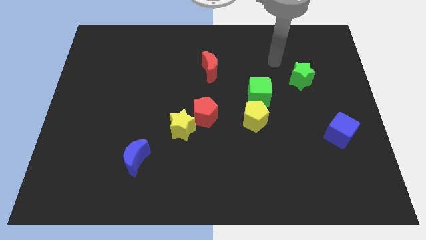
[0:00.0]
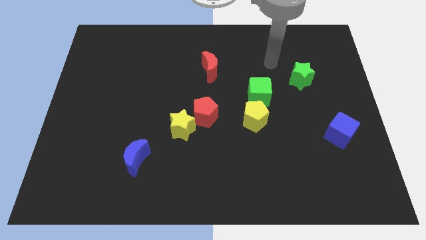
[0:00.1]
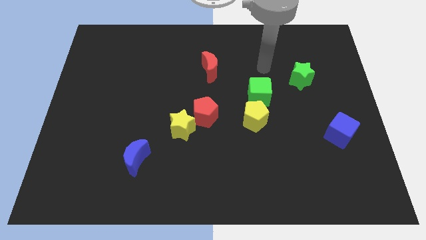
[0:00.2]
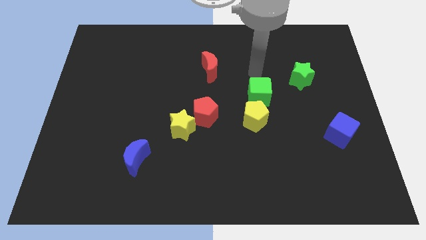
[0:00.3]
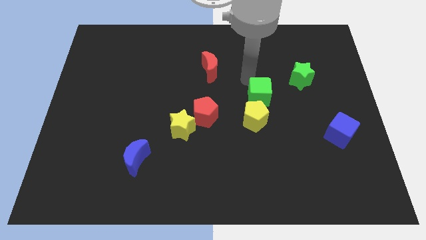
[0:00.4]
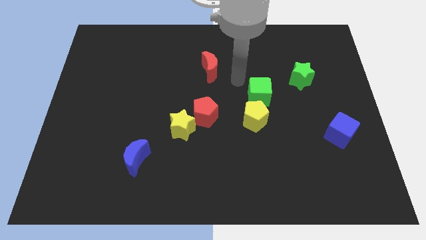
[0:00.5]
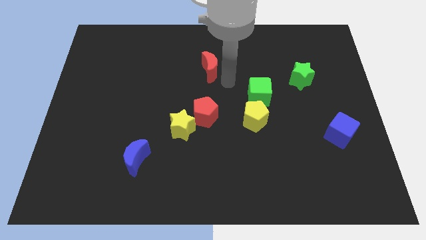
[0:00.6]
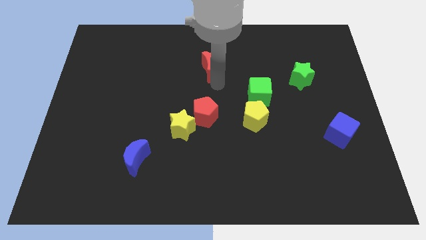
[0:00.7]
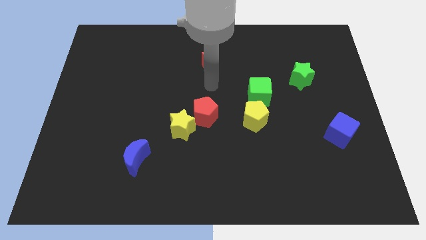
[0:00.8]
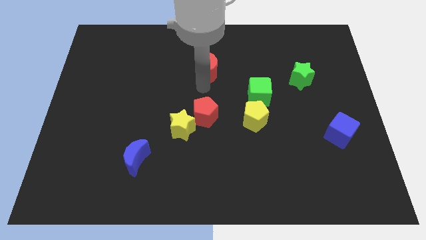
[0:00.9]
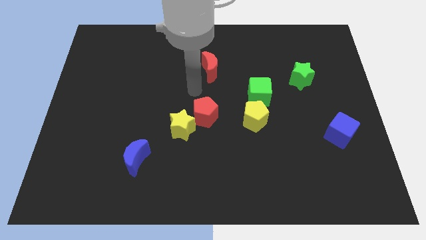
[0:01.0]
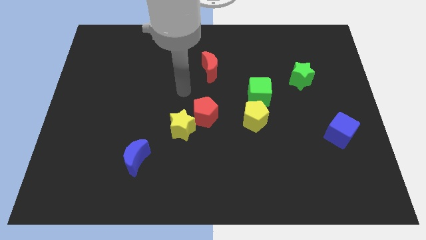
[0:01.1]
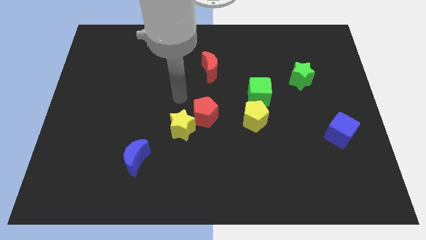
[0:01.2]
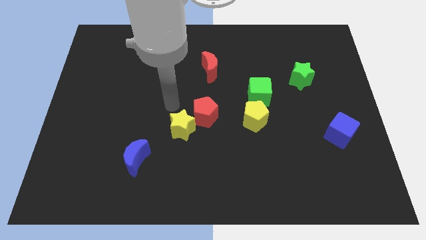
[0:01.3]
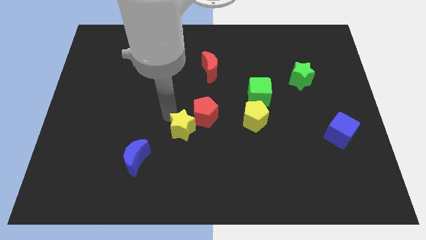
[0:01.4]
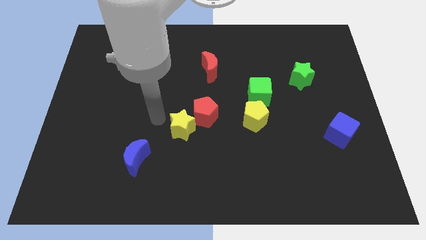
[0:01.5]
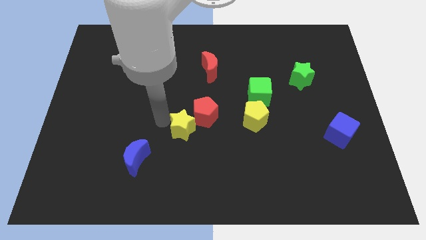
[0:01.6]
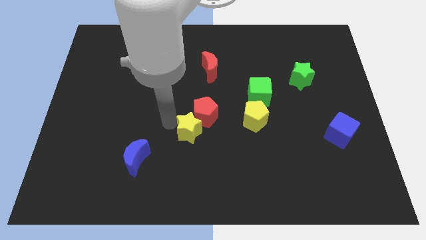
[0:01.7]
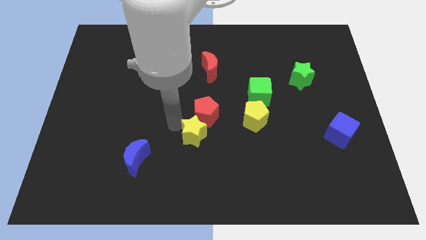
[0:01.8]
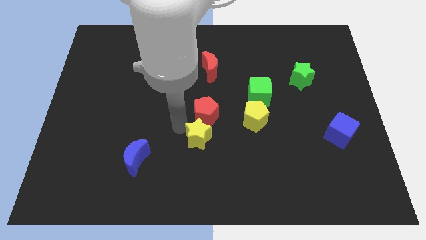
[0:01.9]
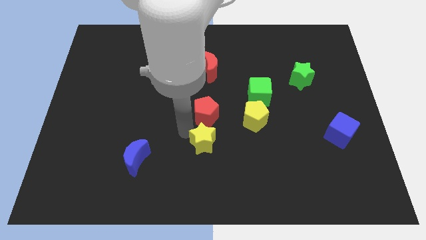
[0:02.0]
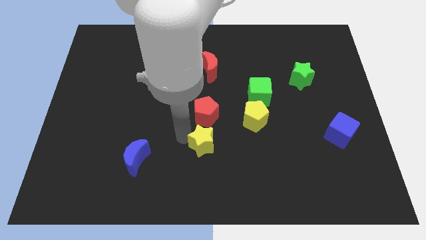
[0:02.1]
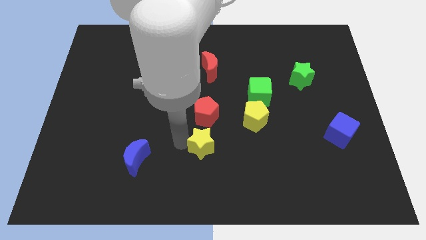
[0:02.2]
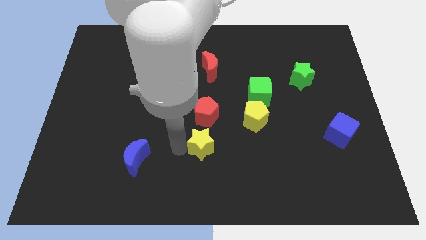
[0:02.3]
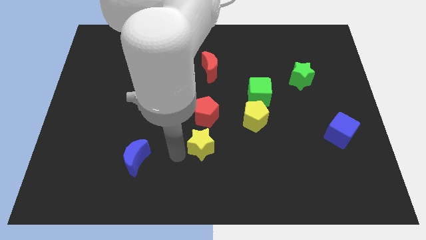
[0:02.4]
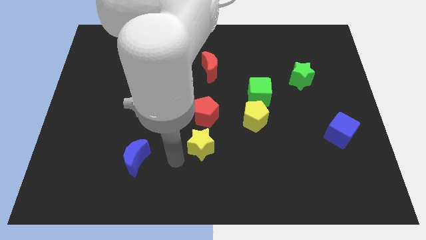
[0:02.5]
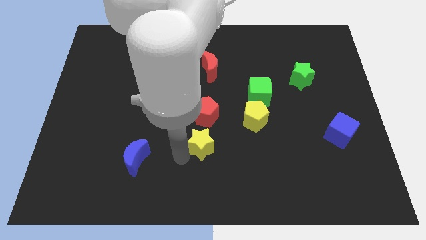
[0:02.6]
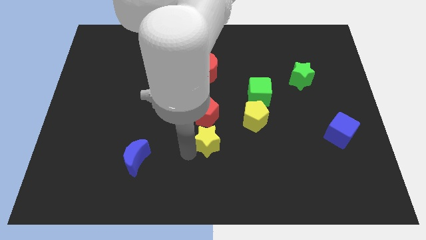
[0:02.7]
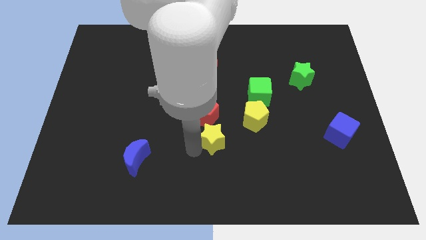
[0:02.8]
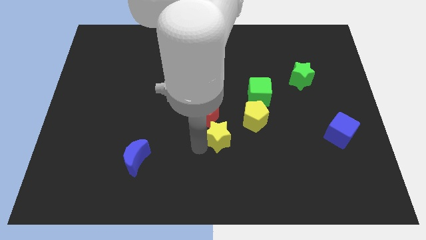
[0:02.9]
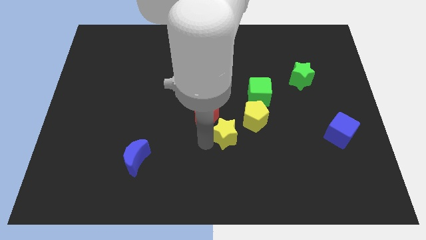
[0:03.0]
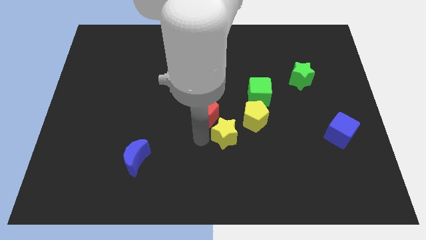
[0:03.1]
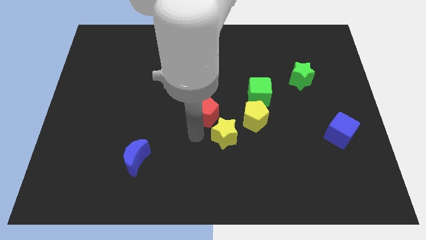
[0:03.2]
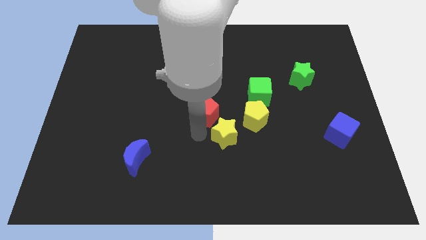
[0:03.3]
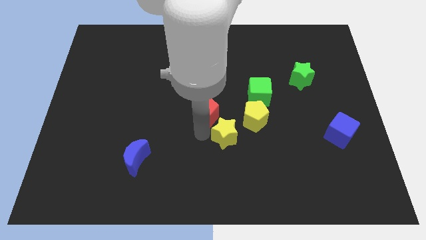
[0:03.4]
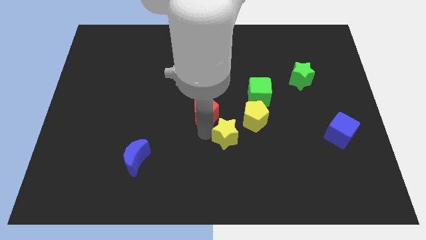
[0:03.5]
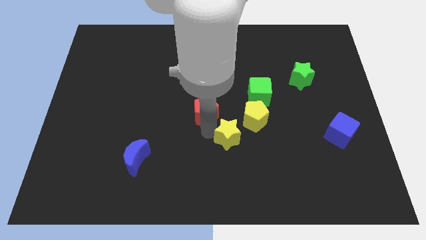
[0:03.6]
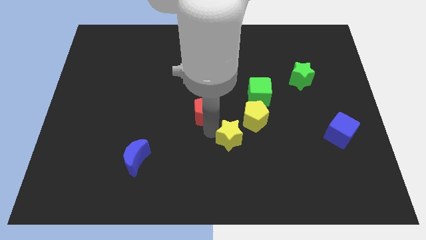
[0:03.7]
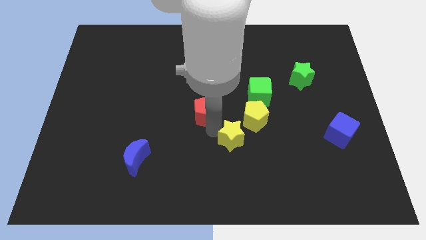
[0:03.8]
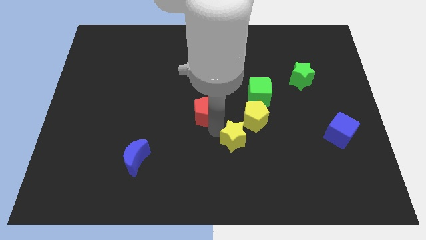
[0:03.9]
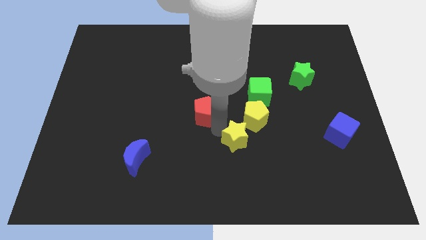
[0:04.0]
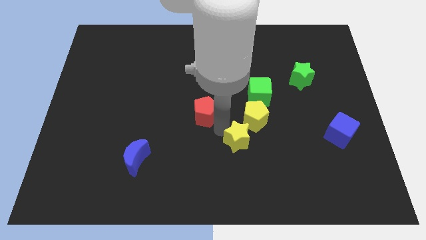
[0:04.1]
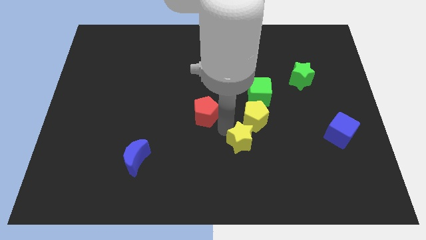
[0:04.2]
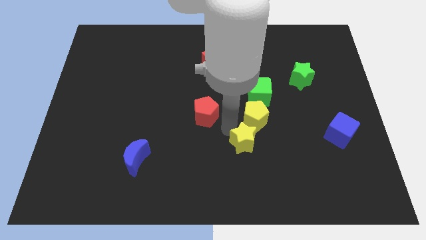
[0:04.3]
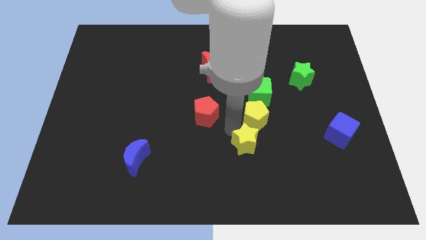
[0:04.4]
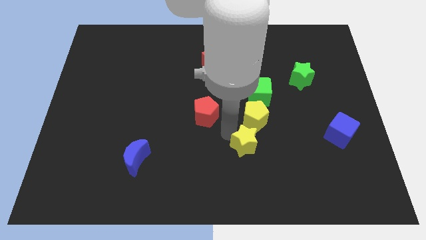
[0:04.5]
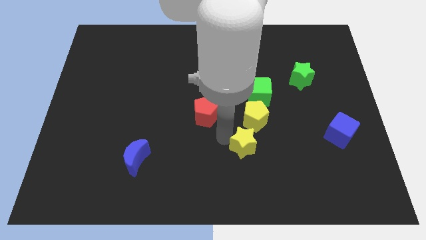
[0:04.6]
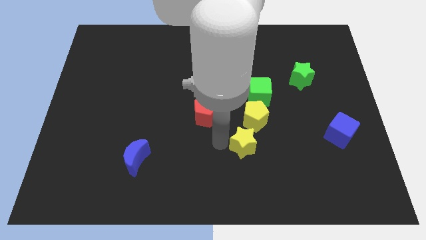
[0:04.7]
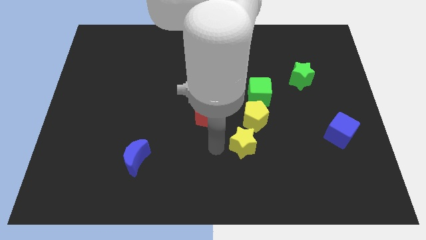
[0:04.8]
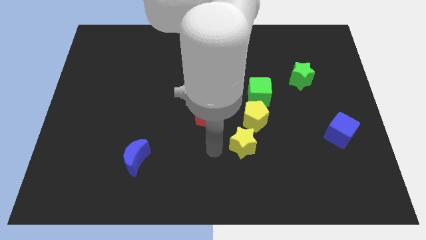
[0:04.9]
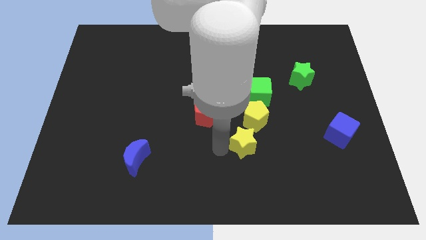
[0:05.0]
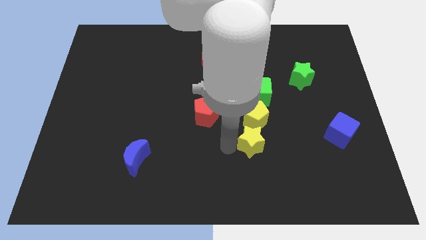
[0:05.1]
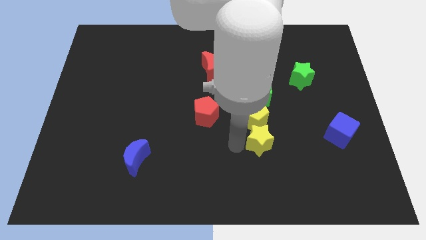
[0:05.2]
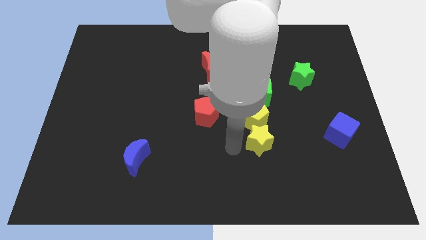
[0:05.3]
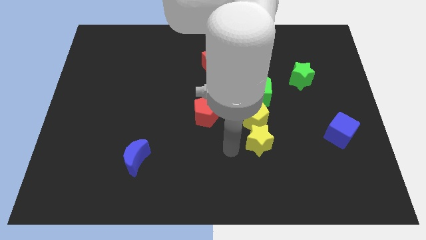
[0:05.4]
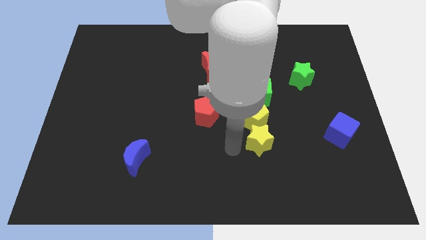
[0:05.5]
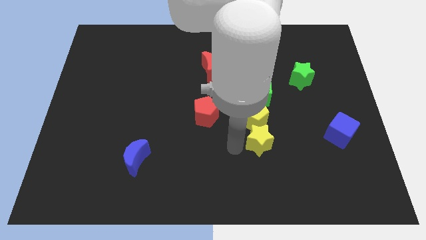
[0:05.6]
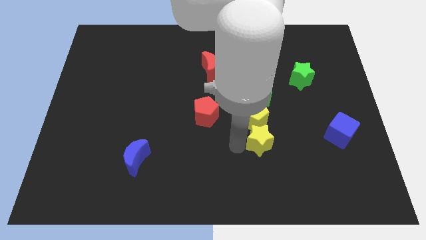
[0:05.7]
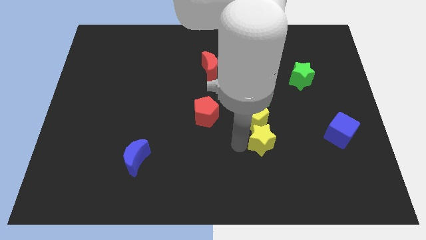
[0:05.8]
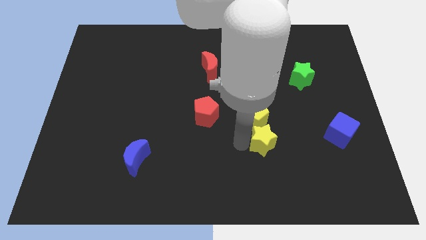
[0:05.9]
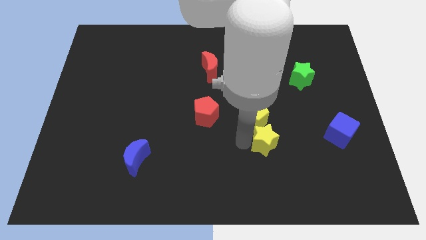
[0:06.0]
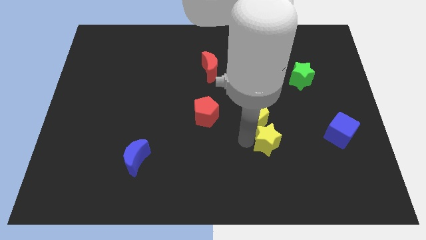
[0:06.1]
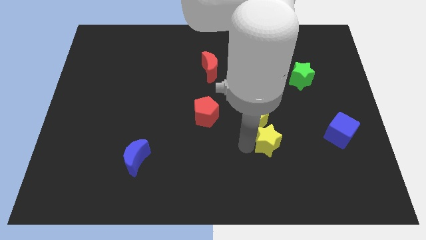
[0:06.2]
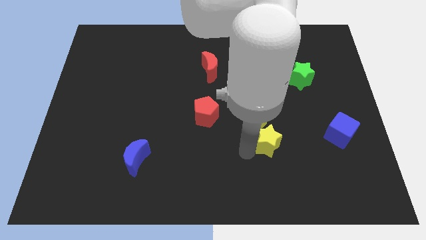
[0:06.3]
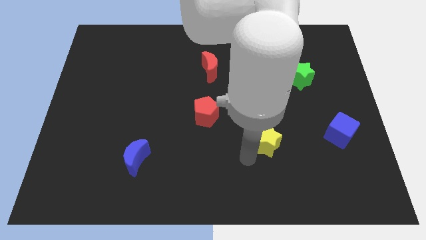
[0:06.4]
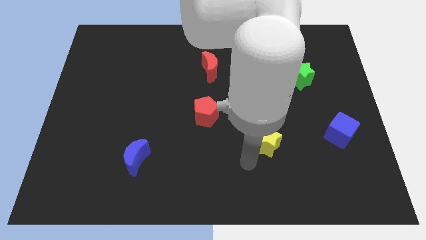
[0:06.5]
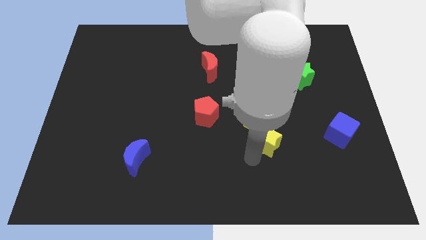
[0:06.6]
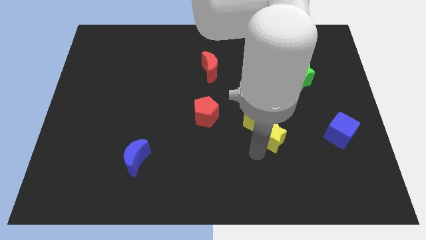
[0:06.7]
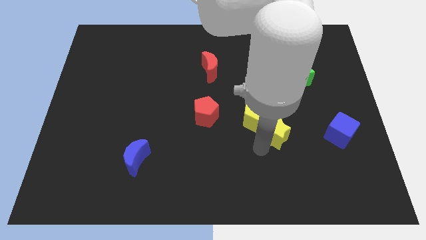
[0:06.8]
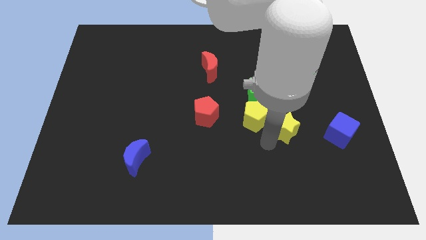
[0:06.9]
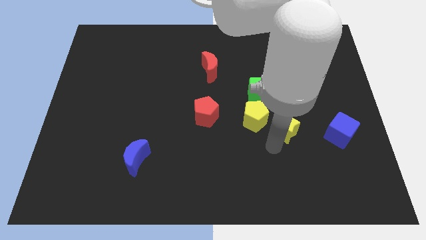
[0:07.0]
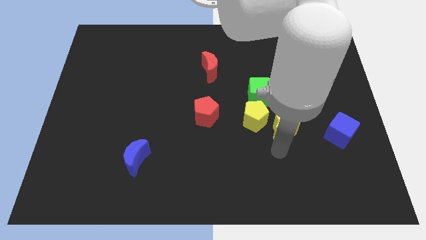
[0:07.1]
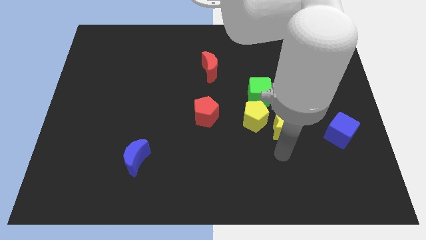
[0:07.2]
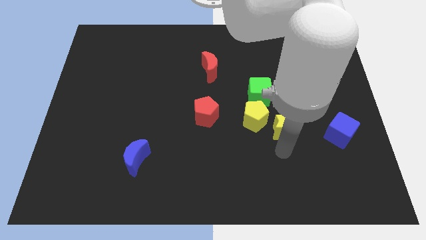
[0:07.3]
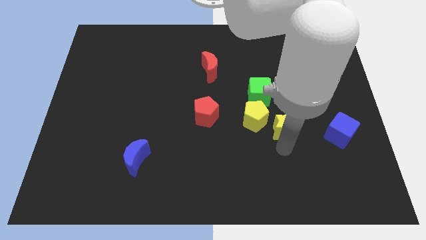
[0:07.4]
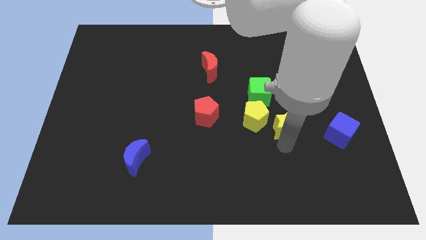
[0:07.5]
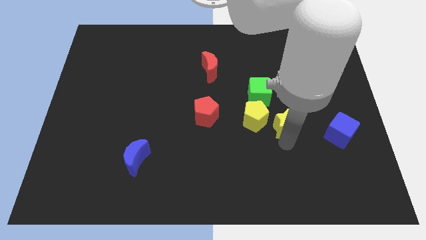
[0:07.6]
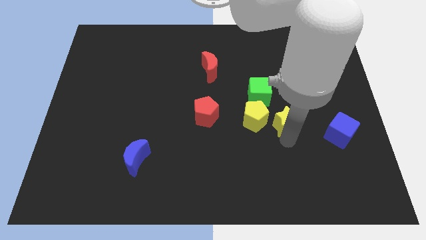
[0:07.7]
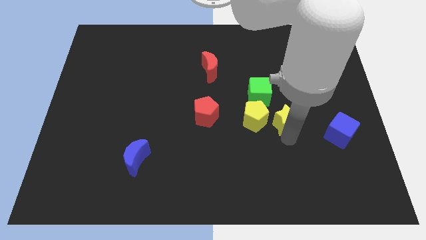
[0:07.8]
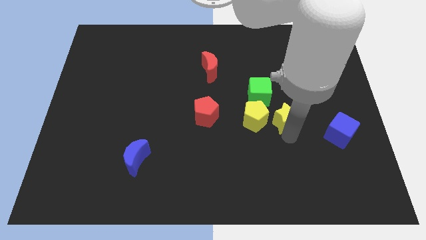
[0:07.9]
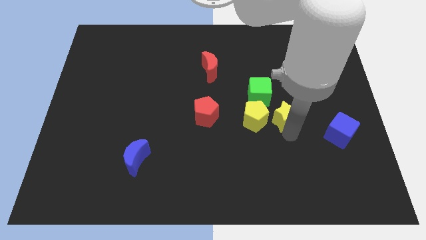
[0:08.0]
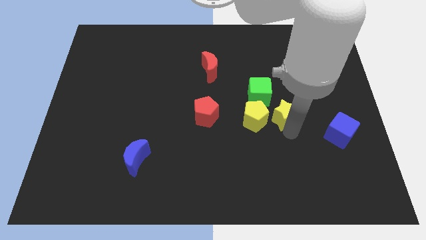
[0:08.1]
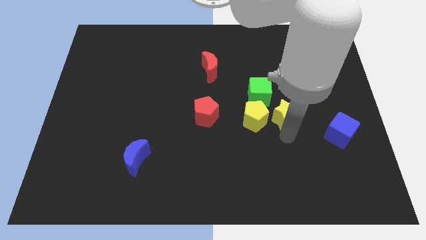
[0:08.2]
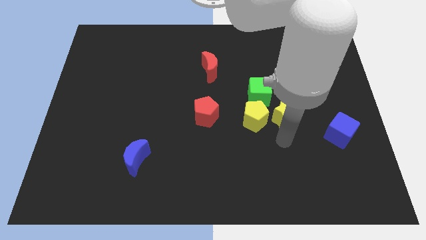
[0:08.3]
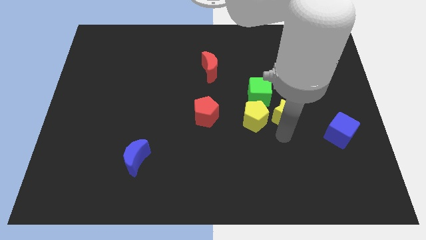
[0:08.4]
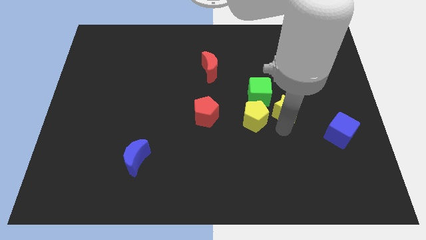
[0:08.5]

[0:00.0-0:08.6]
slide the yellow star to the bottom left of the green star
